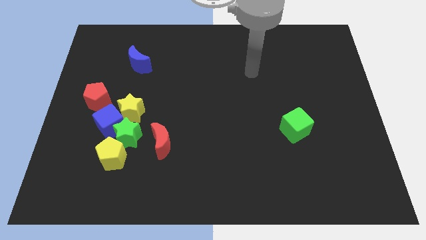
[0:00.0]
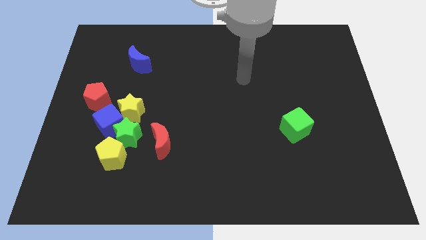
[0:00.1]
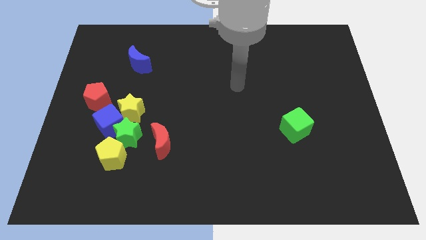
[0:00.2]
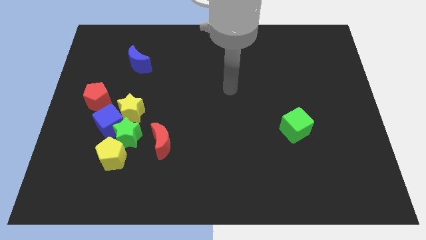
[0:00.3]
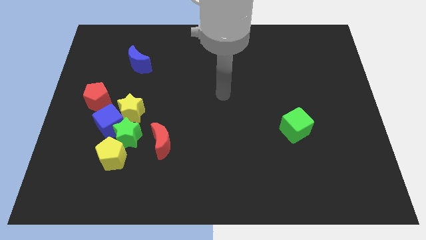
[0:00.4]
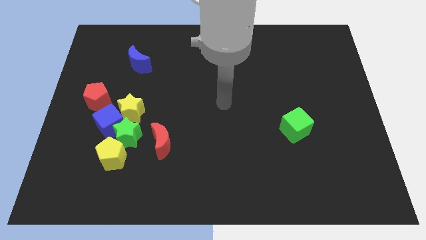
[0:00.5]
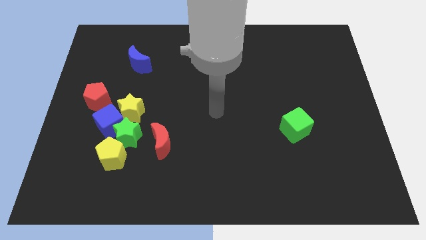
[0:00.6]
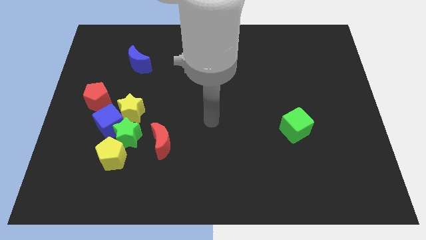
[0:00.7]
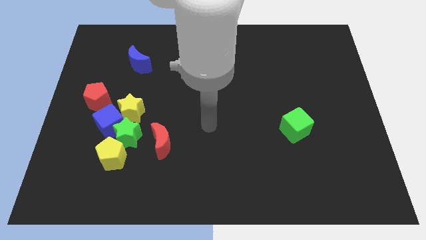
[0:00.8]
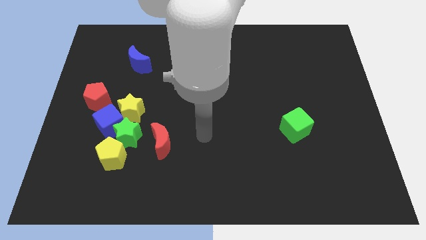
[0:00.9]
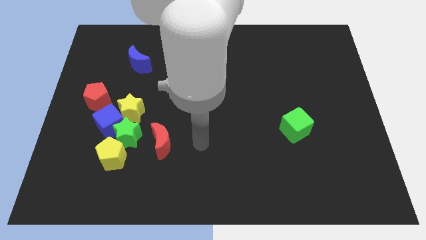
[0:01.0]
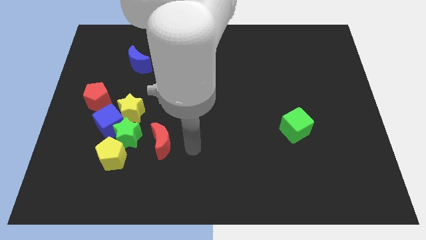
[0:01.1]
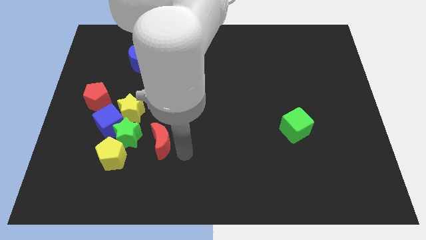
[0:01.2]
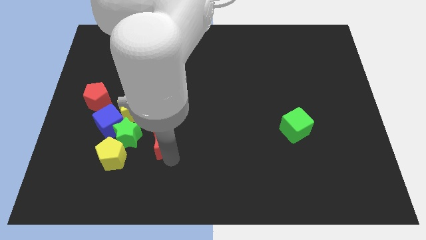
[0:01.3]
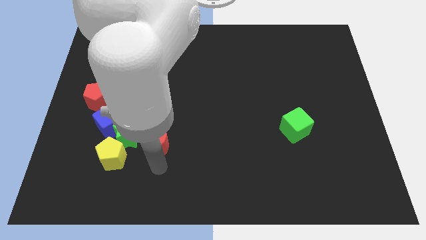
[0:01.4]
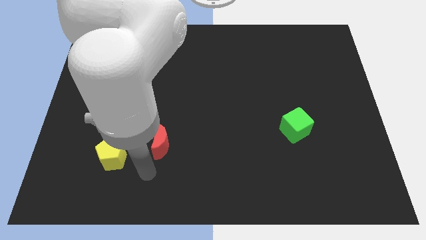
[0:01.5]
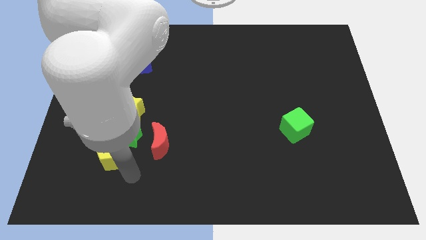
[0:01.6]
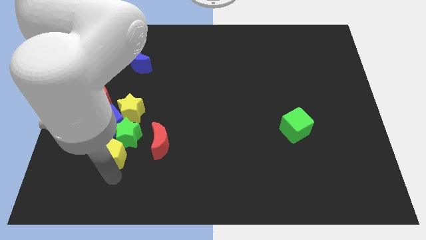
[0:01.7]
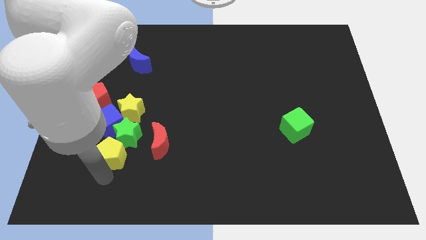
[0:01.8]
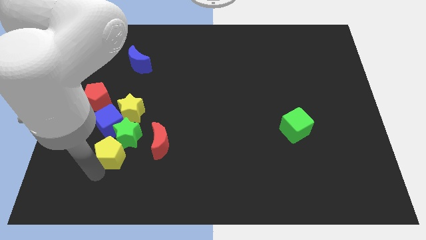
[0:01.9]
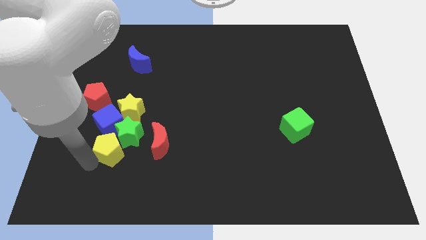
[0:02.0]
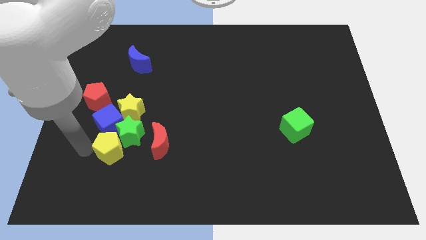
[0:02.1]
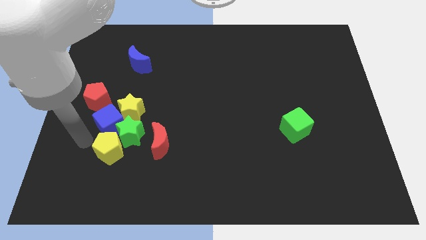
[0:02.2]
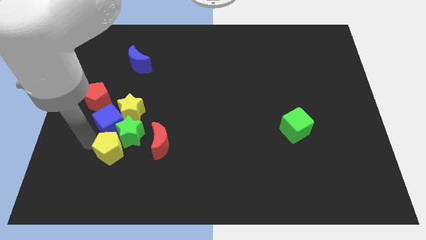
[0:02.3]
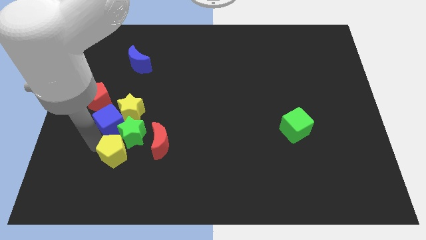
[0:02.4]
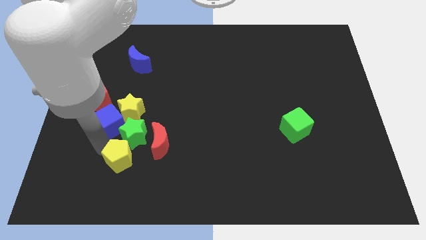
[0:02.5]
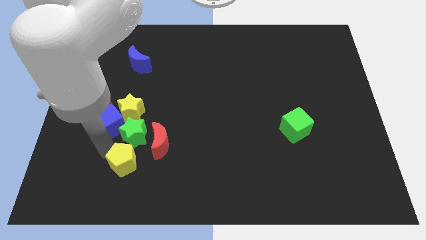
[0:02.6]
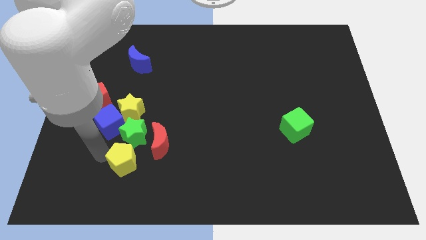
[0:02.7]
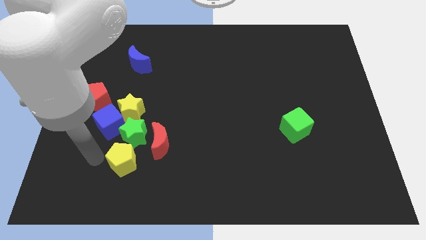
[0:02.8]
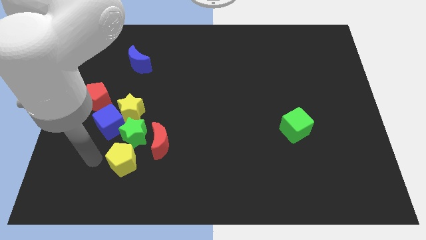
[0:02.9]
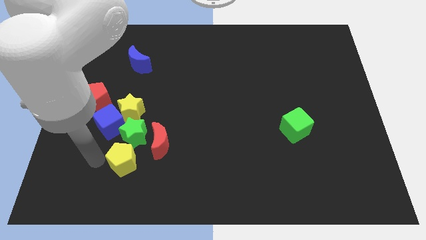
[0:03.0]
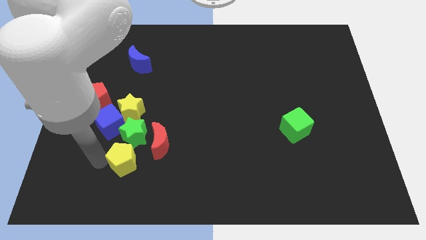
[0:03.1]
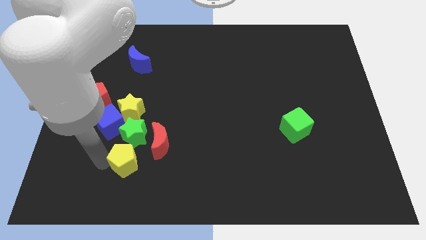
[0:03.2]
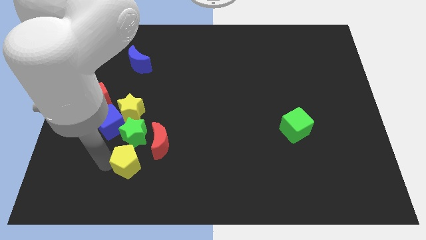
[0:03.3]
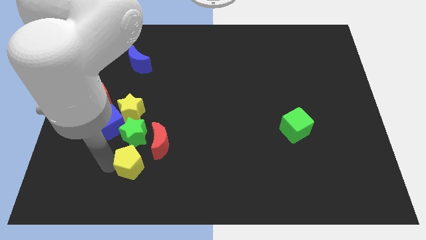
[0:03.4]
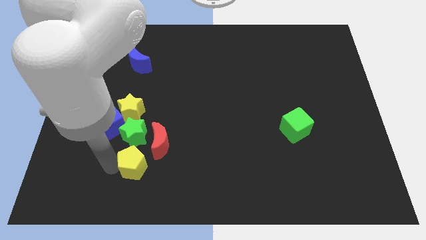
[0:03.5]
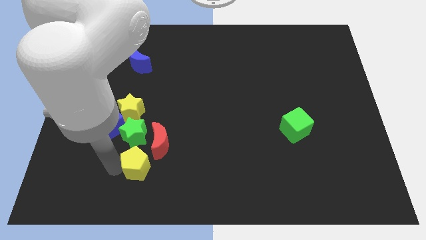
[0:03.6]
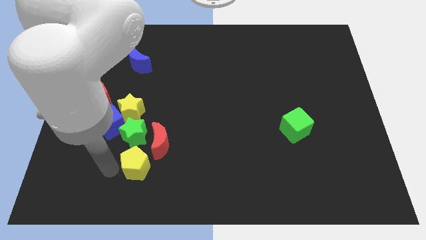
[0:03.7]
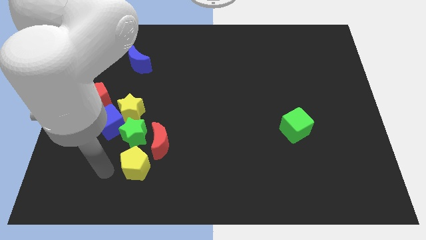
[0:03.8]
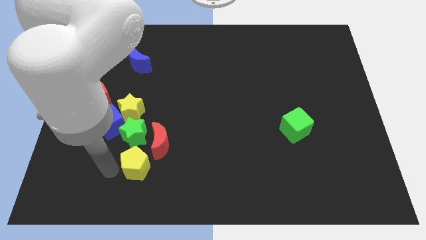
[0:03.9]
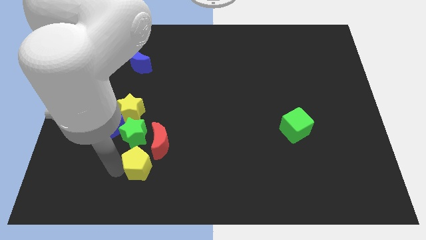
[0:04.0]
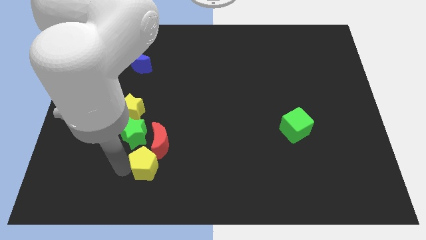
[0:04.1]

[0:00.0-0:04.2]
slightly slide the yellow pentagon right

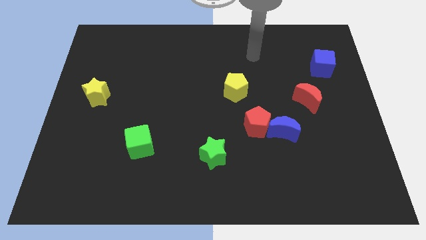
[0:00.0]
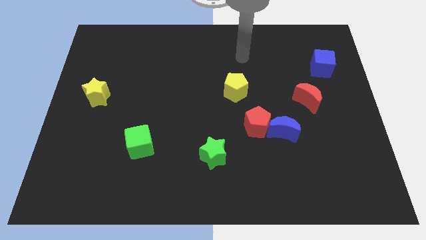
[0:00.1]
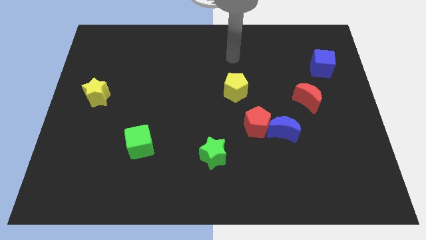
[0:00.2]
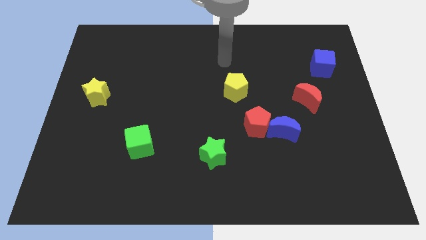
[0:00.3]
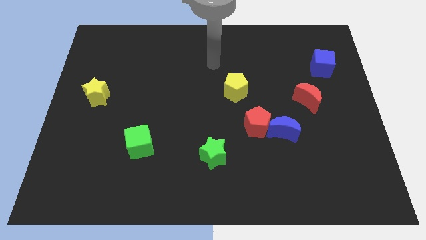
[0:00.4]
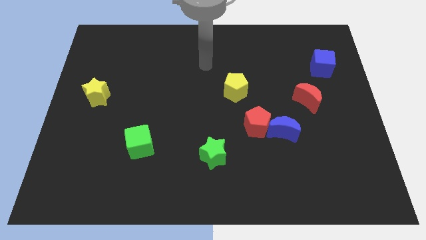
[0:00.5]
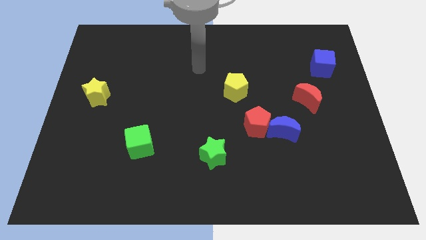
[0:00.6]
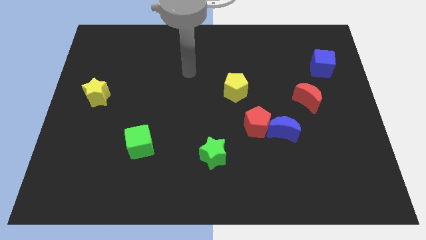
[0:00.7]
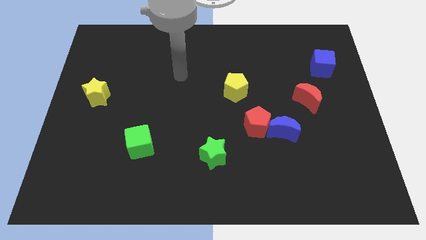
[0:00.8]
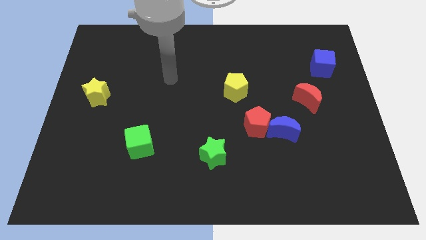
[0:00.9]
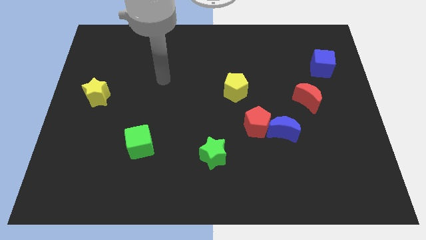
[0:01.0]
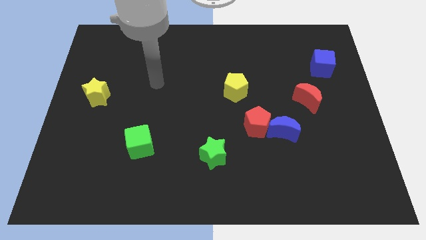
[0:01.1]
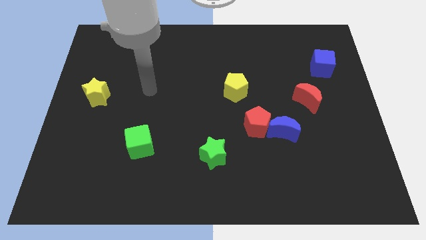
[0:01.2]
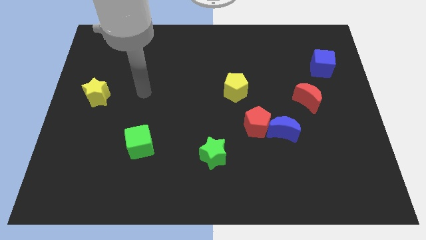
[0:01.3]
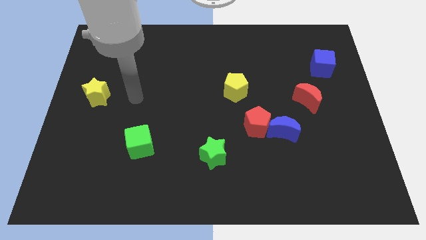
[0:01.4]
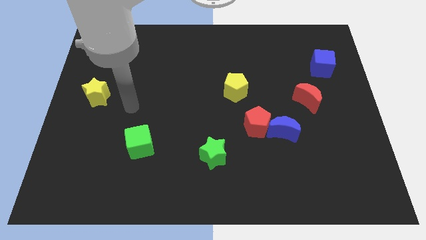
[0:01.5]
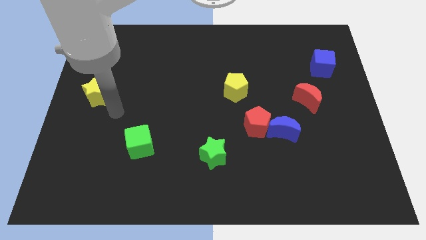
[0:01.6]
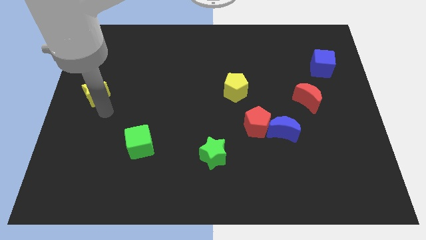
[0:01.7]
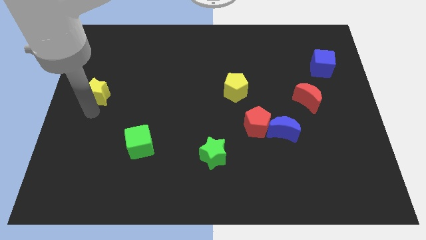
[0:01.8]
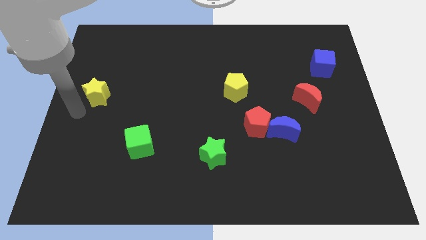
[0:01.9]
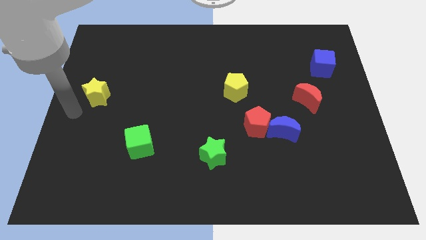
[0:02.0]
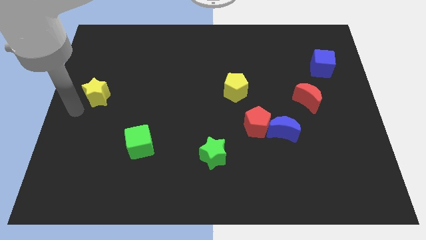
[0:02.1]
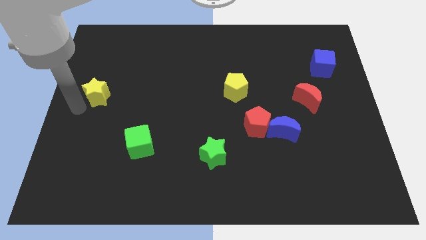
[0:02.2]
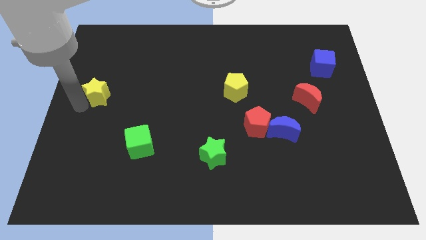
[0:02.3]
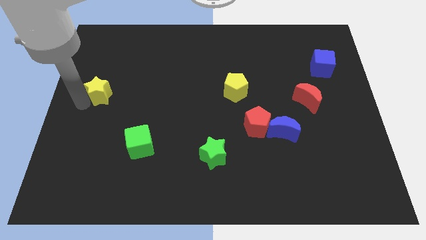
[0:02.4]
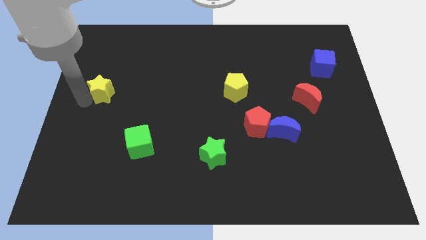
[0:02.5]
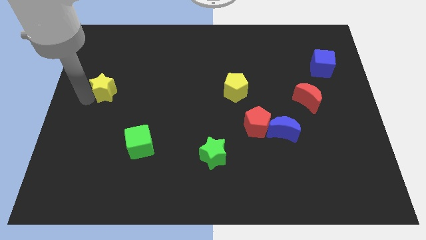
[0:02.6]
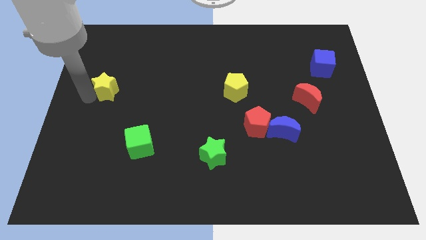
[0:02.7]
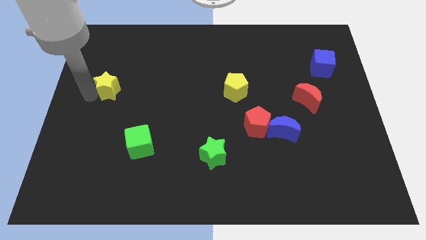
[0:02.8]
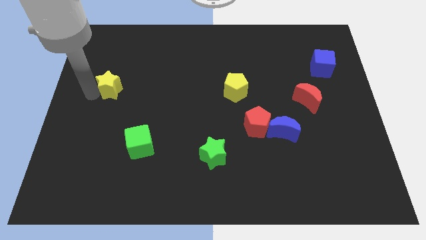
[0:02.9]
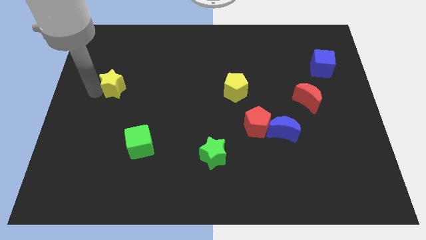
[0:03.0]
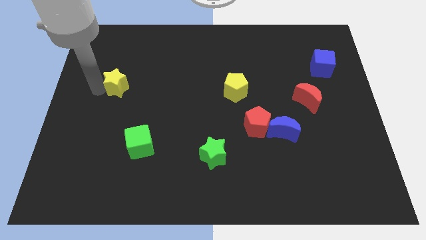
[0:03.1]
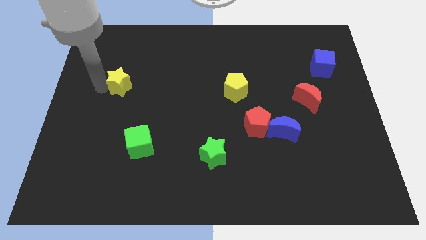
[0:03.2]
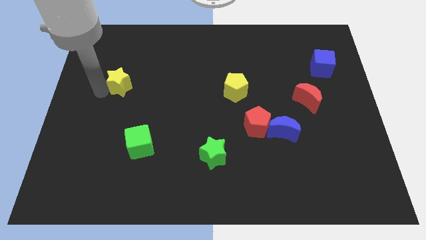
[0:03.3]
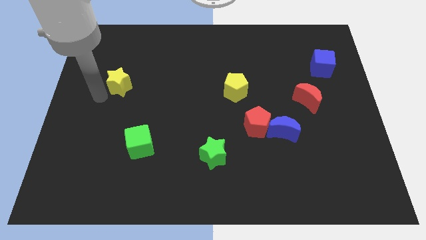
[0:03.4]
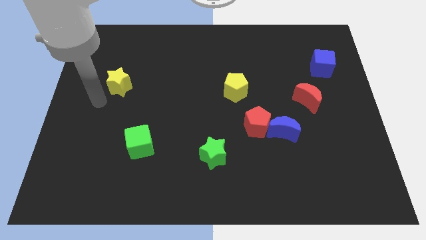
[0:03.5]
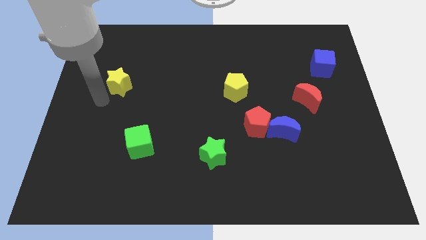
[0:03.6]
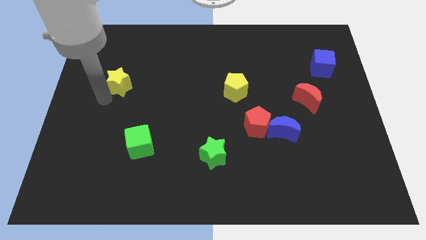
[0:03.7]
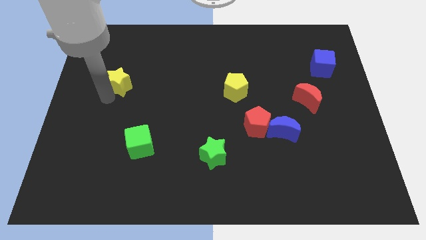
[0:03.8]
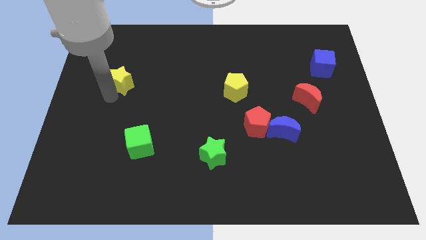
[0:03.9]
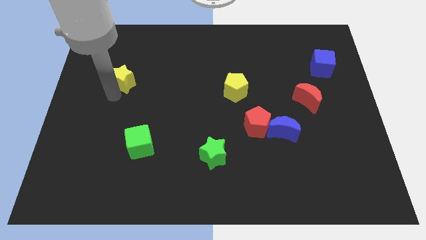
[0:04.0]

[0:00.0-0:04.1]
slightly slide the yellow star up and to the right diagonally
